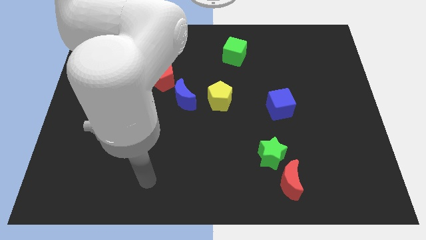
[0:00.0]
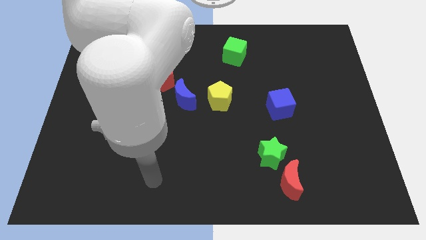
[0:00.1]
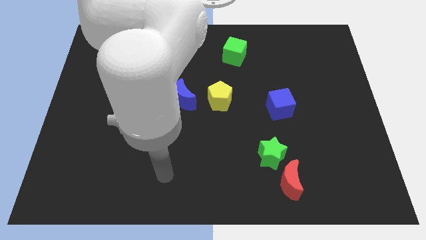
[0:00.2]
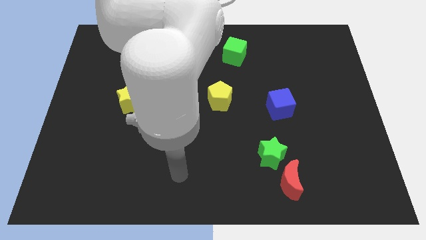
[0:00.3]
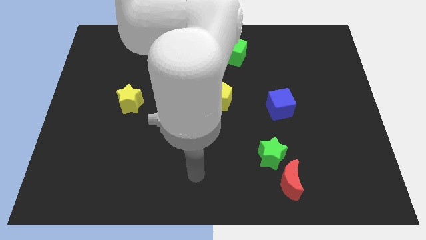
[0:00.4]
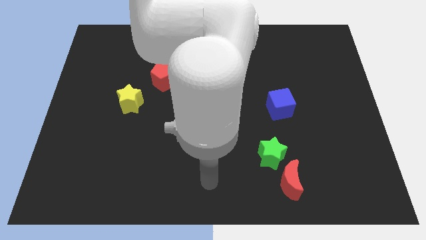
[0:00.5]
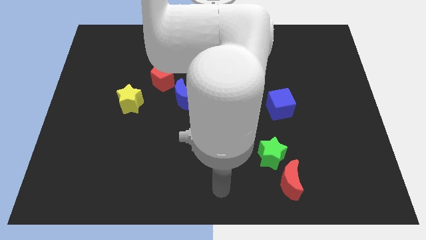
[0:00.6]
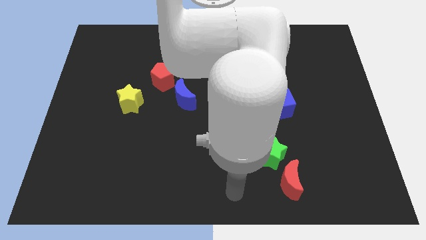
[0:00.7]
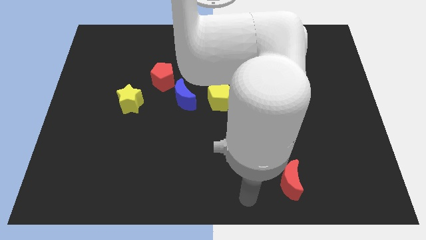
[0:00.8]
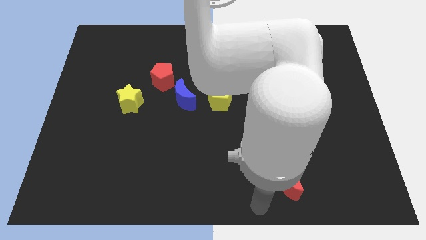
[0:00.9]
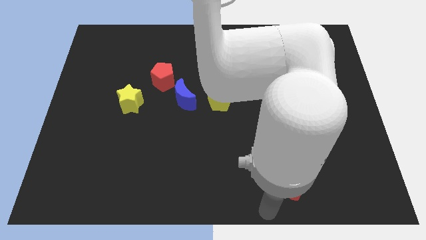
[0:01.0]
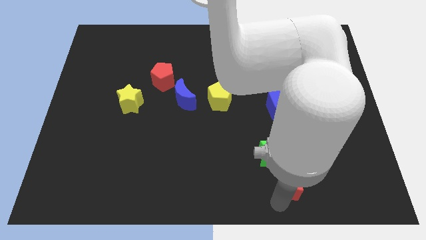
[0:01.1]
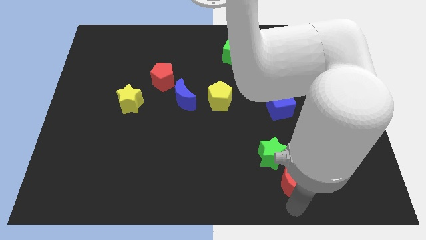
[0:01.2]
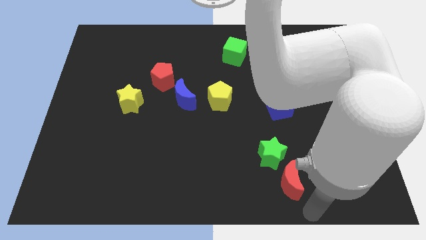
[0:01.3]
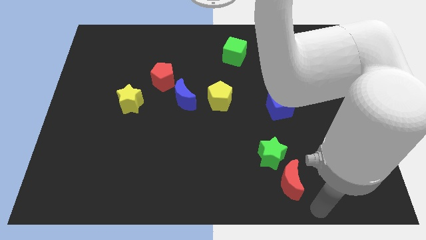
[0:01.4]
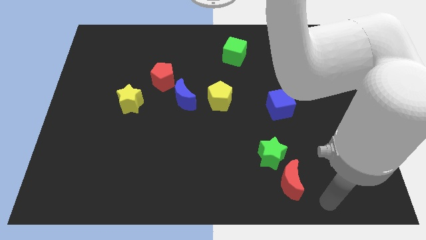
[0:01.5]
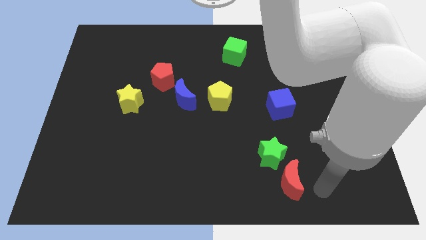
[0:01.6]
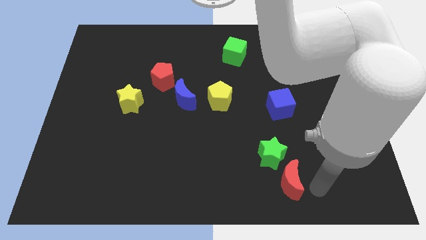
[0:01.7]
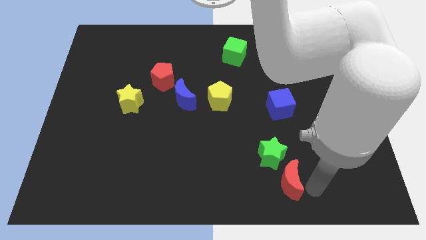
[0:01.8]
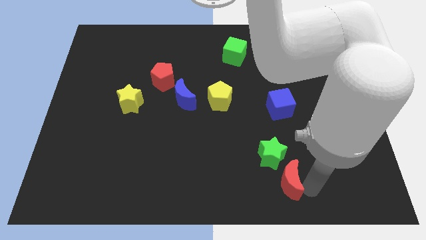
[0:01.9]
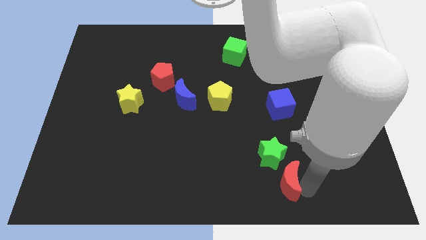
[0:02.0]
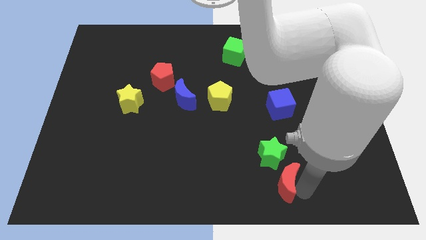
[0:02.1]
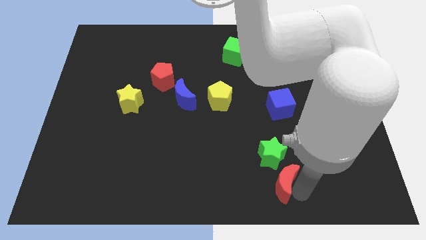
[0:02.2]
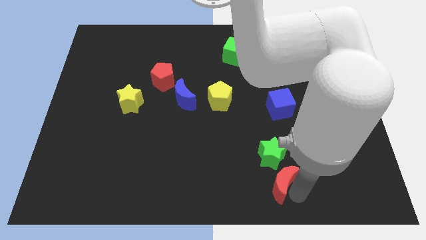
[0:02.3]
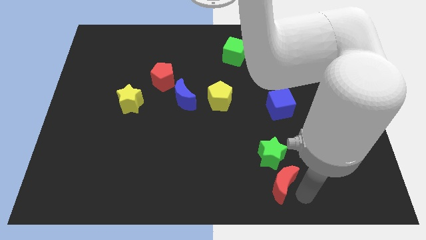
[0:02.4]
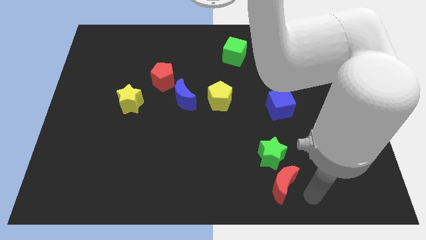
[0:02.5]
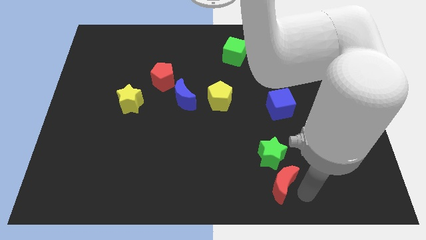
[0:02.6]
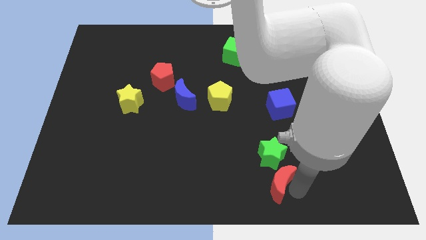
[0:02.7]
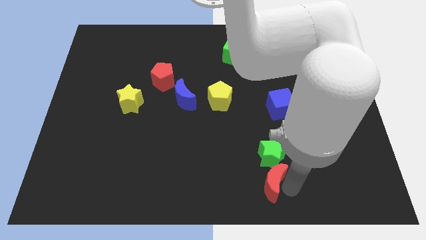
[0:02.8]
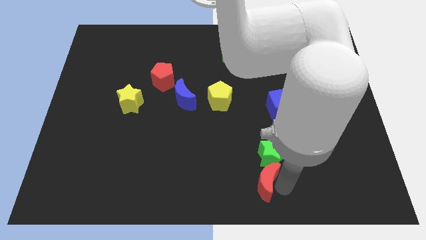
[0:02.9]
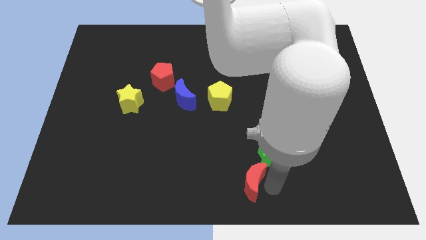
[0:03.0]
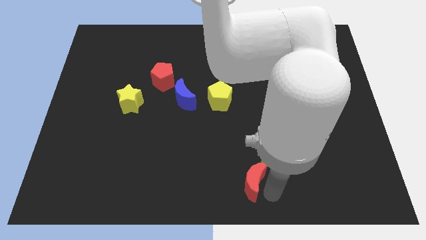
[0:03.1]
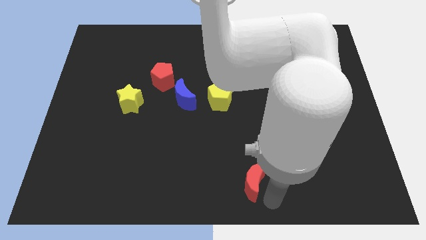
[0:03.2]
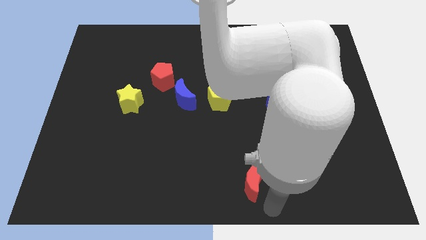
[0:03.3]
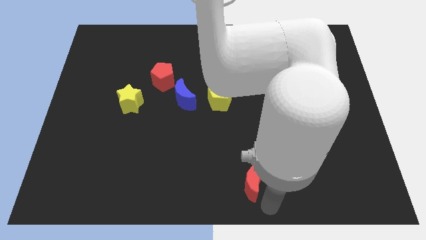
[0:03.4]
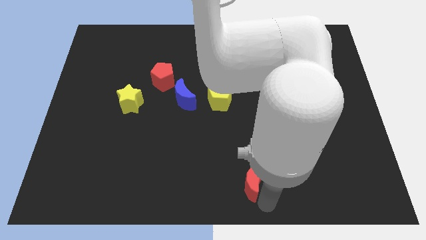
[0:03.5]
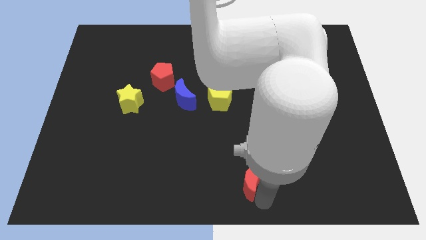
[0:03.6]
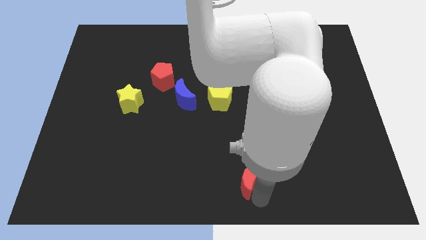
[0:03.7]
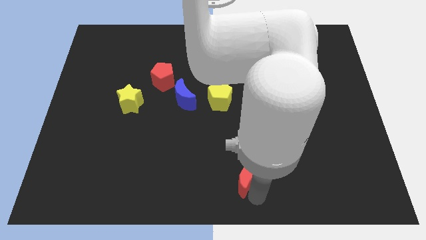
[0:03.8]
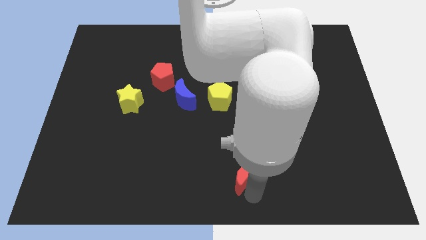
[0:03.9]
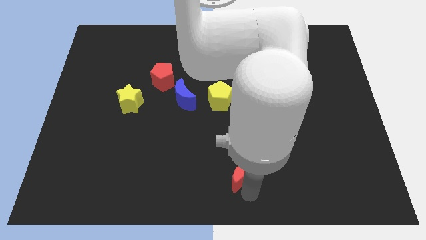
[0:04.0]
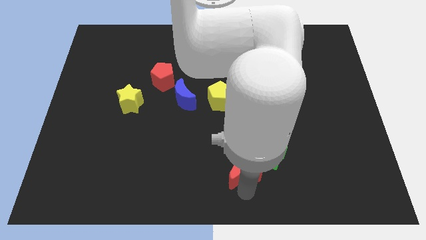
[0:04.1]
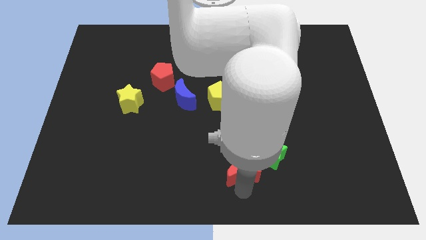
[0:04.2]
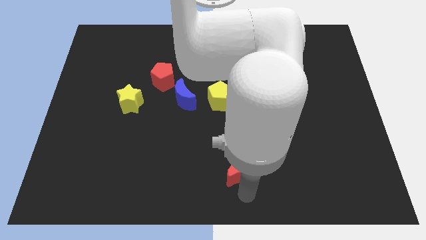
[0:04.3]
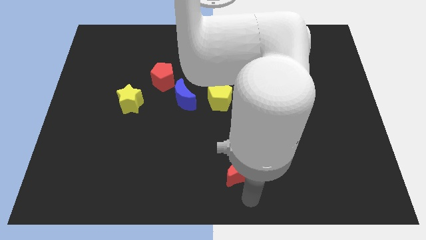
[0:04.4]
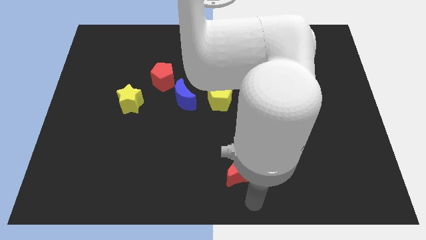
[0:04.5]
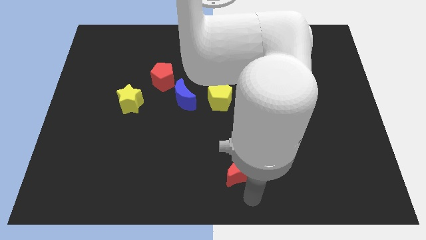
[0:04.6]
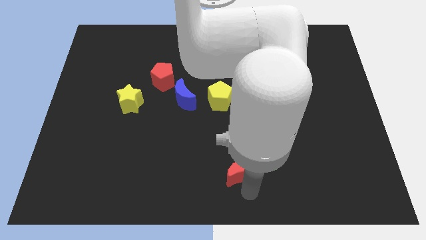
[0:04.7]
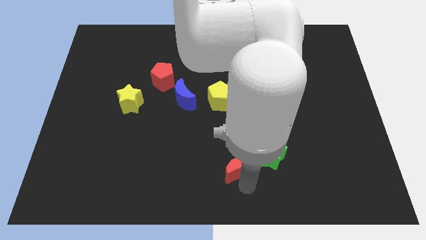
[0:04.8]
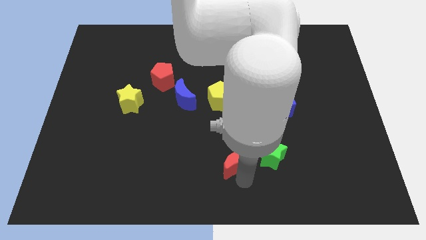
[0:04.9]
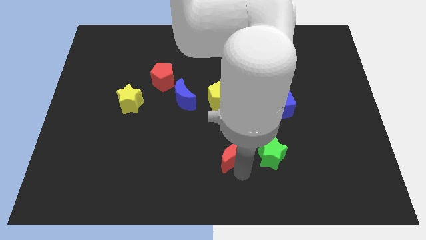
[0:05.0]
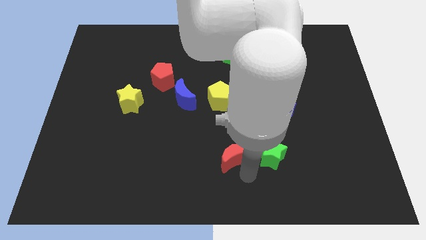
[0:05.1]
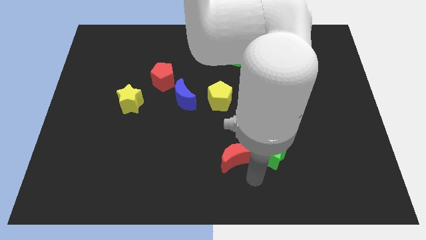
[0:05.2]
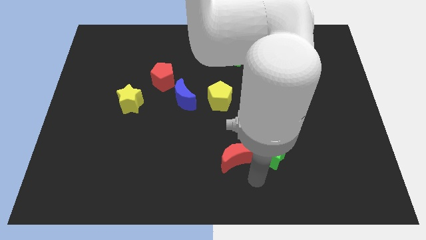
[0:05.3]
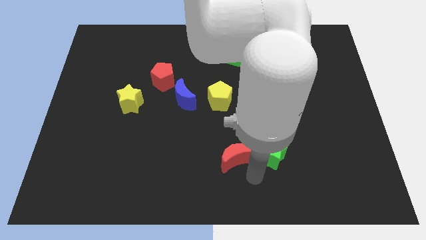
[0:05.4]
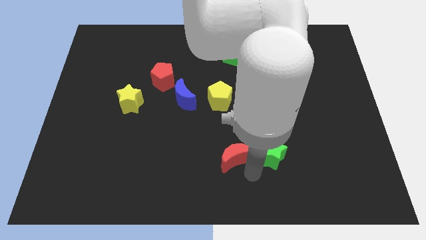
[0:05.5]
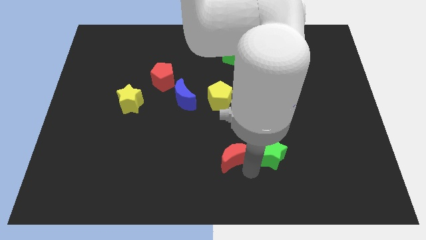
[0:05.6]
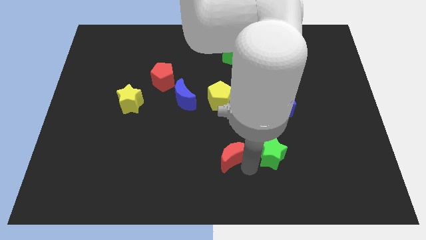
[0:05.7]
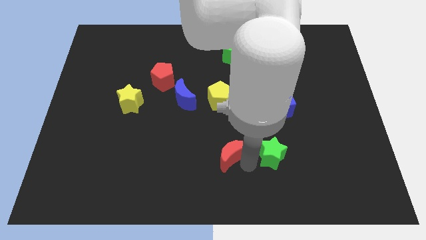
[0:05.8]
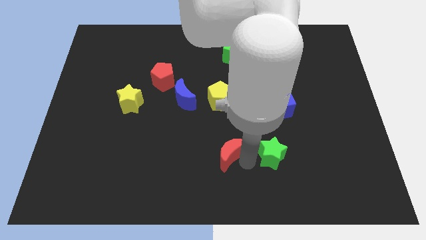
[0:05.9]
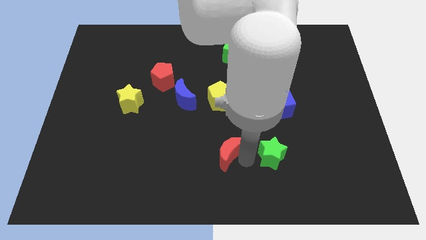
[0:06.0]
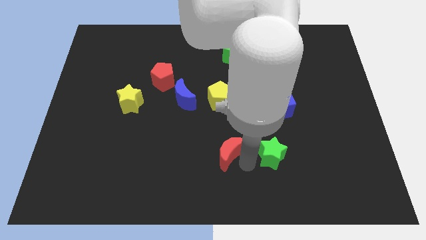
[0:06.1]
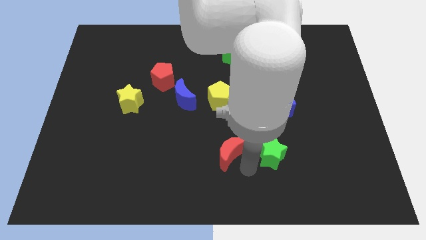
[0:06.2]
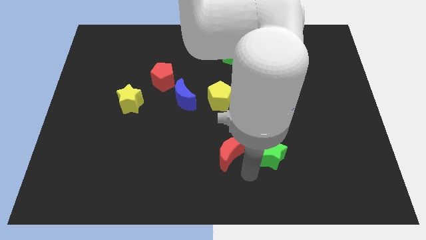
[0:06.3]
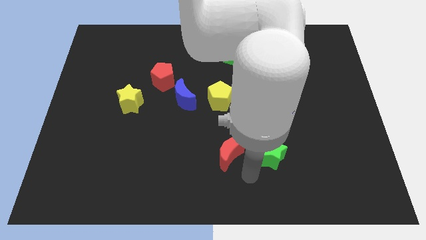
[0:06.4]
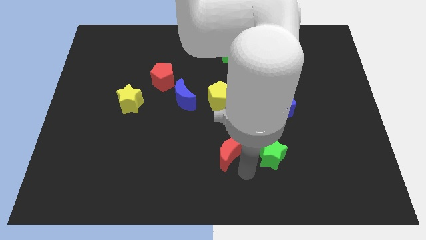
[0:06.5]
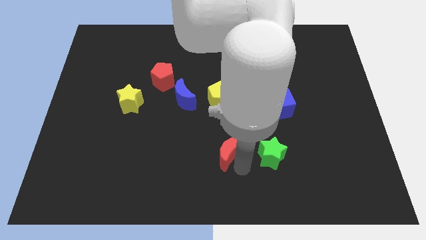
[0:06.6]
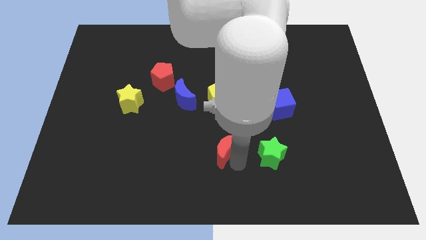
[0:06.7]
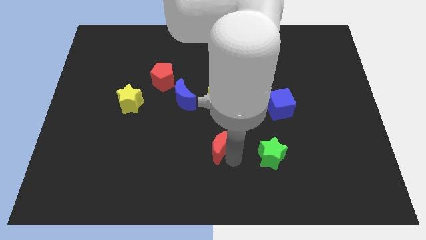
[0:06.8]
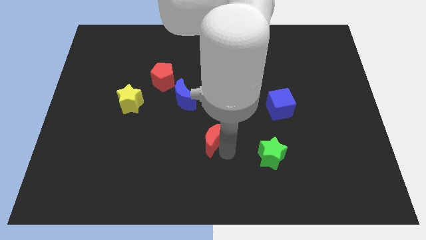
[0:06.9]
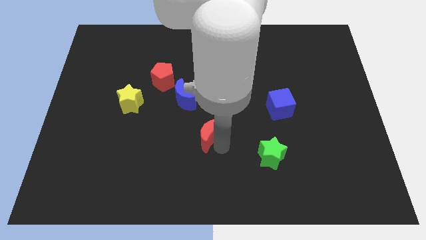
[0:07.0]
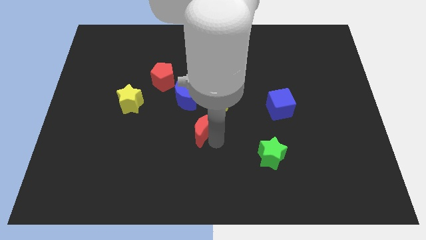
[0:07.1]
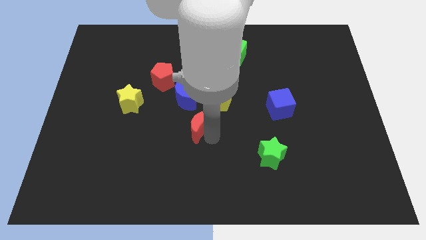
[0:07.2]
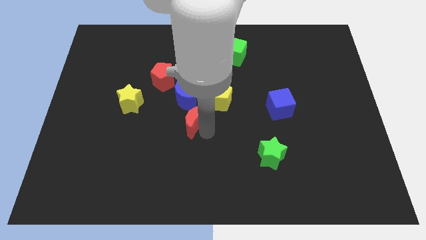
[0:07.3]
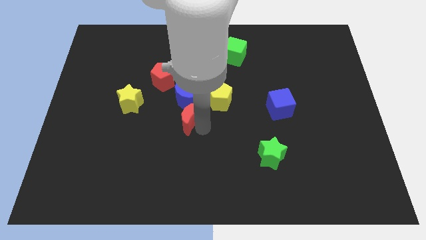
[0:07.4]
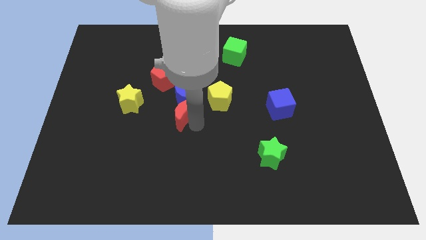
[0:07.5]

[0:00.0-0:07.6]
push the red moon just left of the yellow pentagon
